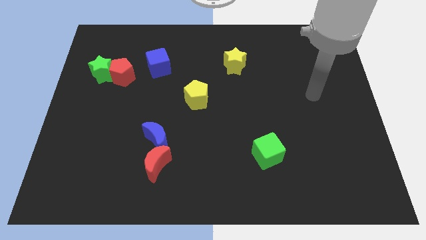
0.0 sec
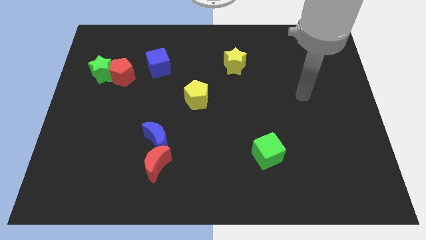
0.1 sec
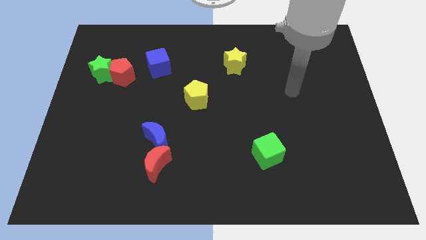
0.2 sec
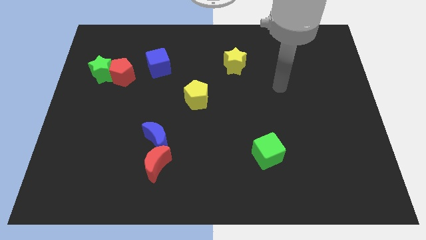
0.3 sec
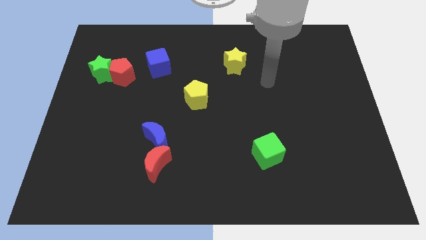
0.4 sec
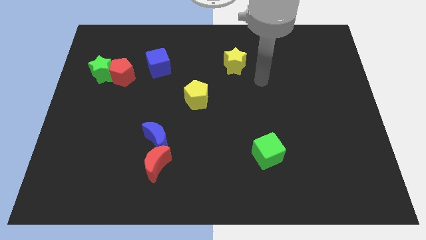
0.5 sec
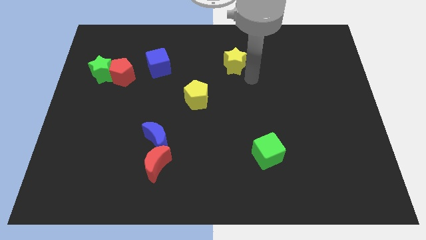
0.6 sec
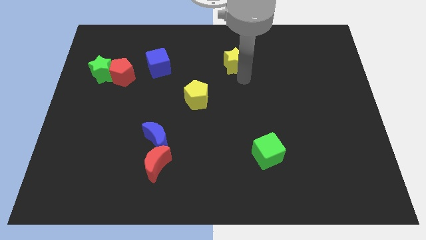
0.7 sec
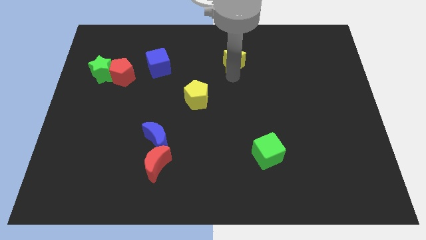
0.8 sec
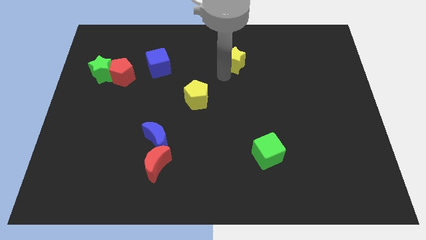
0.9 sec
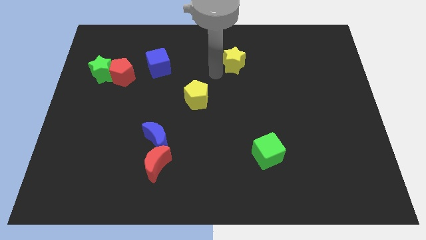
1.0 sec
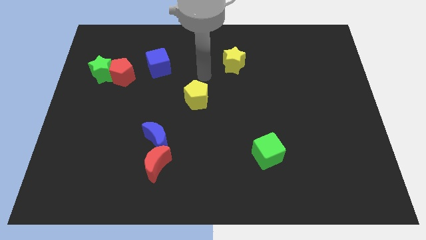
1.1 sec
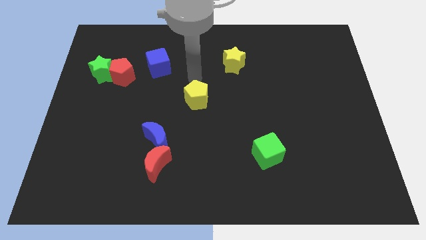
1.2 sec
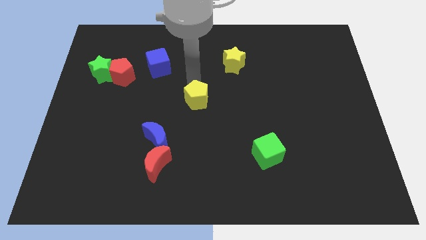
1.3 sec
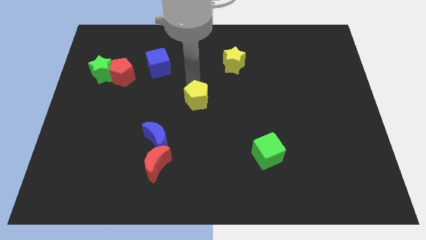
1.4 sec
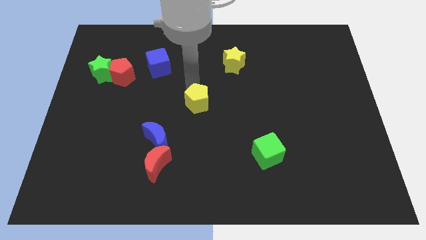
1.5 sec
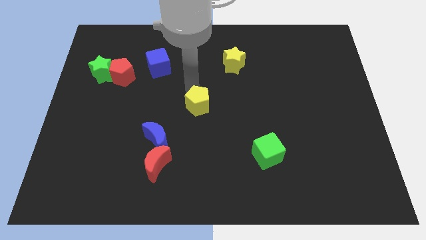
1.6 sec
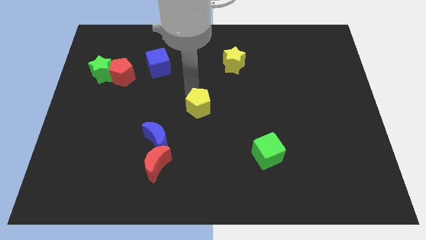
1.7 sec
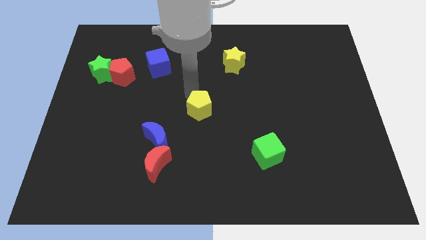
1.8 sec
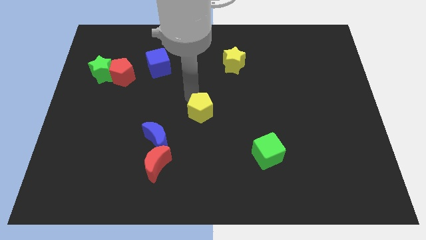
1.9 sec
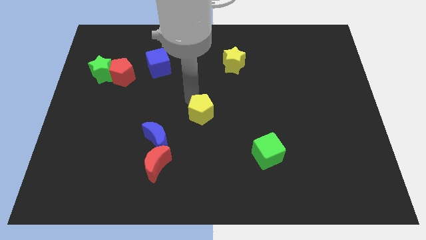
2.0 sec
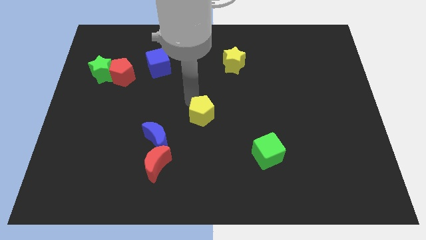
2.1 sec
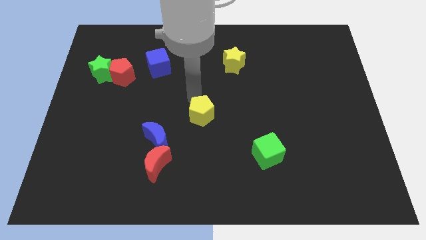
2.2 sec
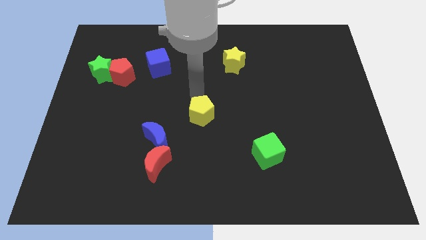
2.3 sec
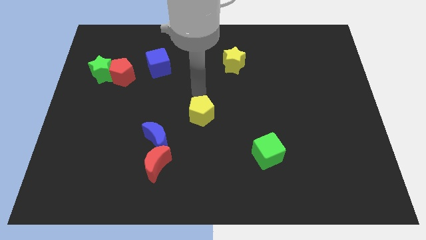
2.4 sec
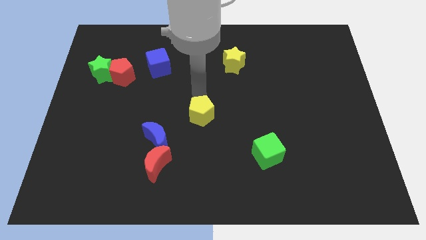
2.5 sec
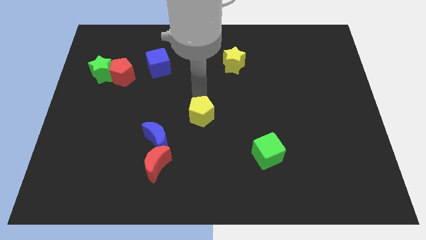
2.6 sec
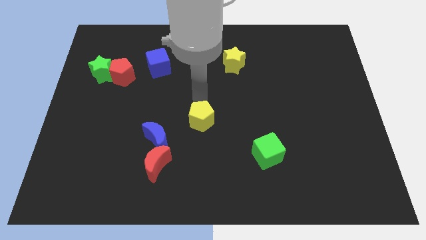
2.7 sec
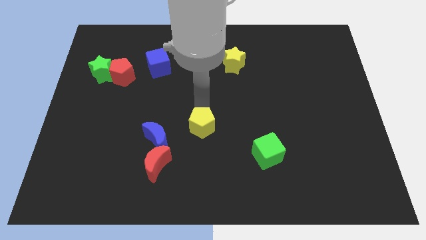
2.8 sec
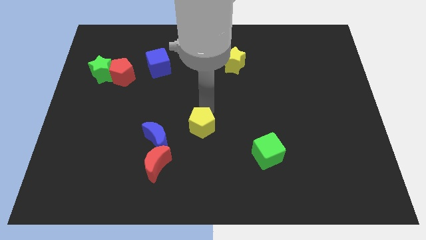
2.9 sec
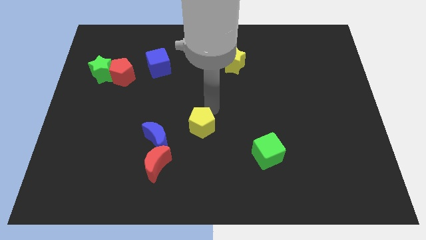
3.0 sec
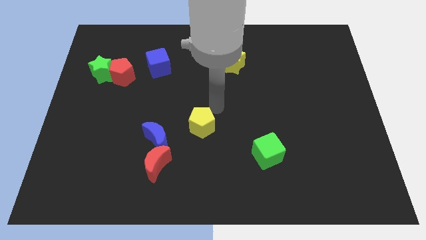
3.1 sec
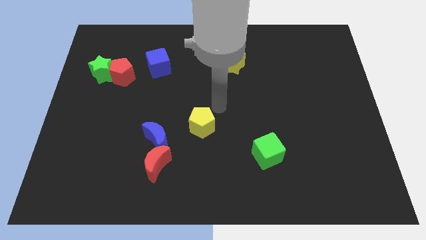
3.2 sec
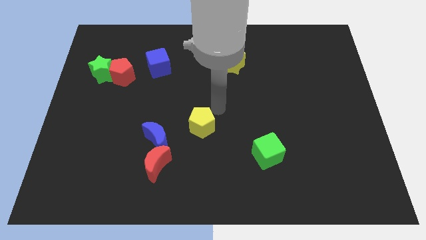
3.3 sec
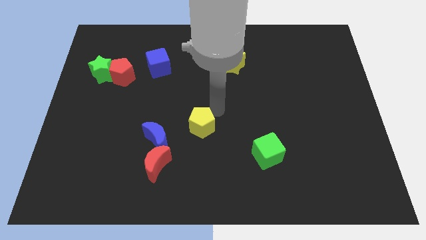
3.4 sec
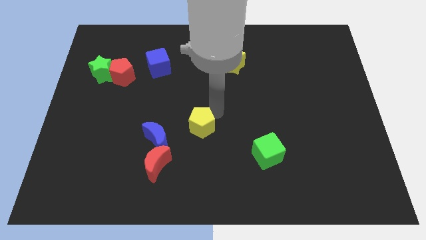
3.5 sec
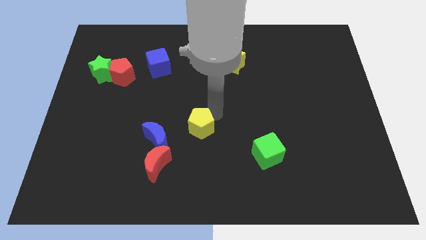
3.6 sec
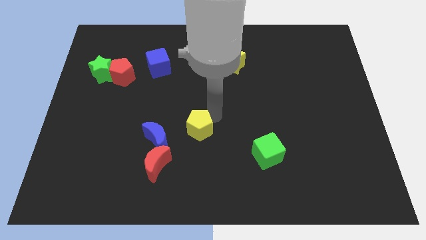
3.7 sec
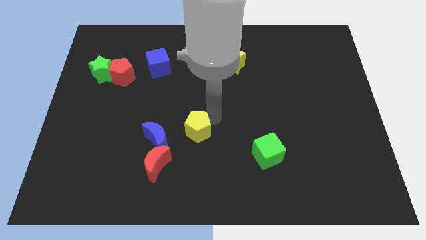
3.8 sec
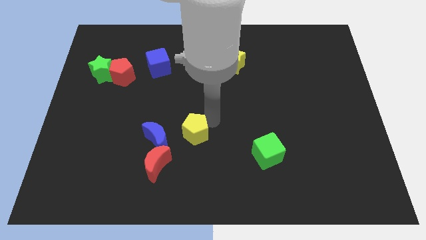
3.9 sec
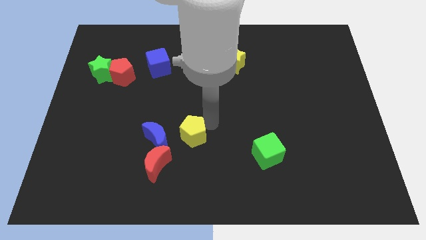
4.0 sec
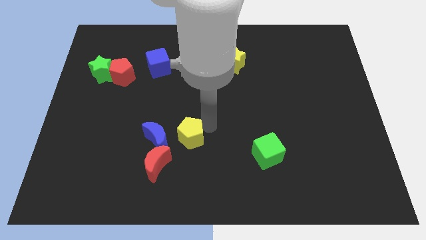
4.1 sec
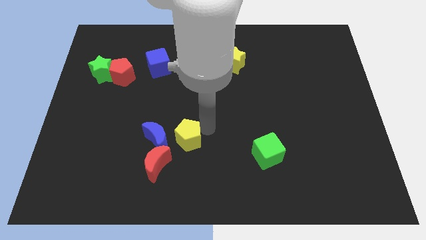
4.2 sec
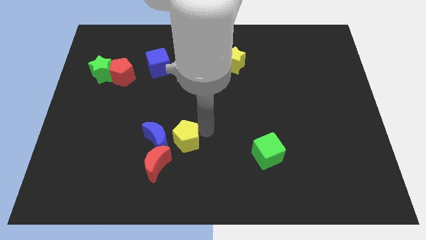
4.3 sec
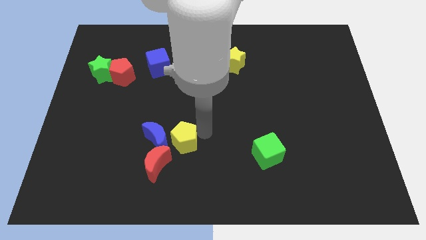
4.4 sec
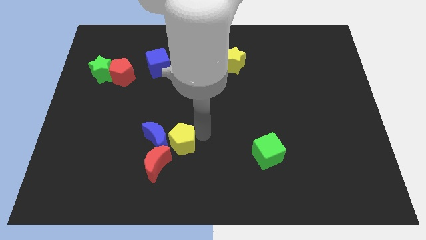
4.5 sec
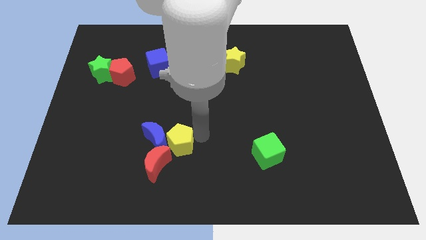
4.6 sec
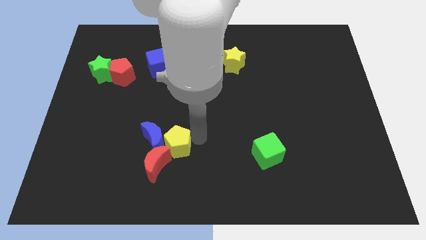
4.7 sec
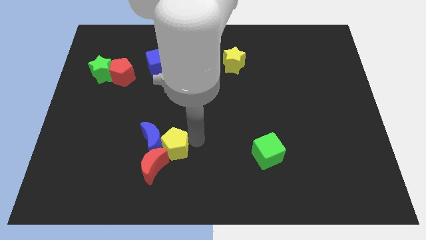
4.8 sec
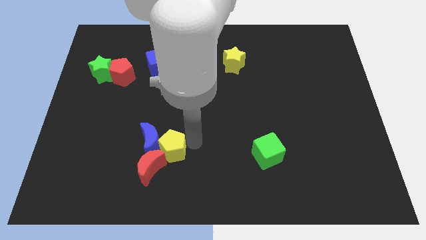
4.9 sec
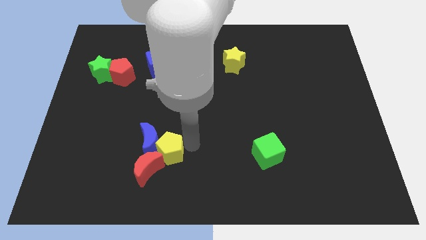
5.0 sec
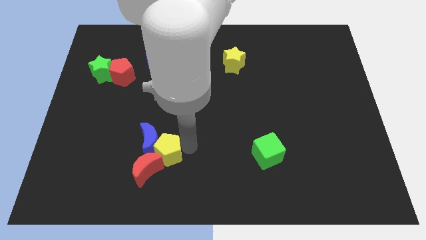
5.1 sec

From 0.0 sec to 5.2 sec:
move the yellow pentagon next to the red moon

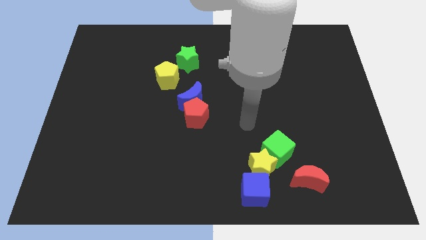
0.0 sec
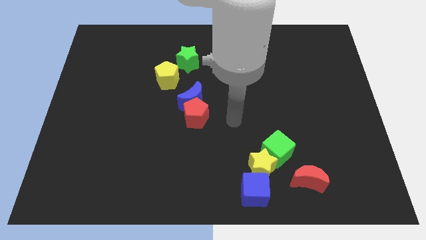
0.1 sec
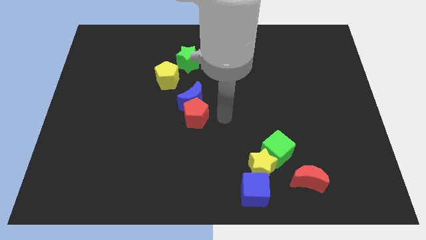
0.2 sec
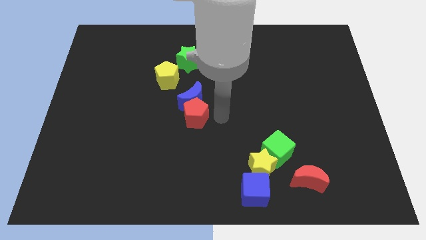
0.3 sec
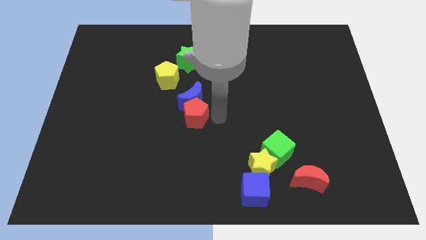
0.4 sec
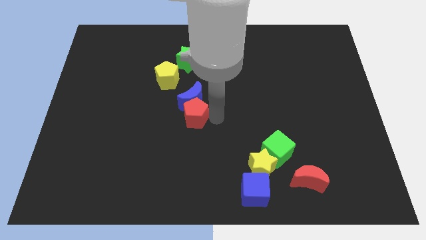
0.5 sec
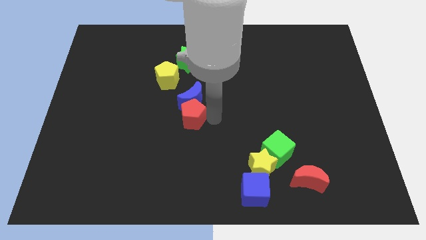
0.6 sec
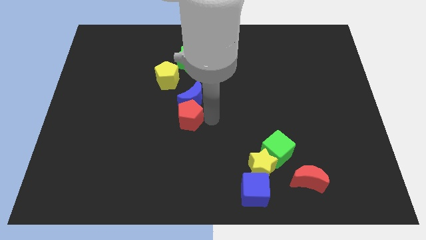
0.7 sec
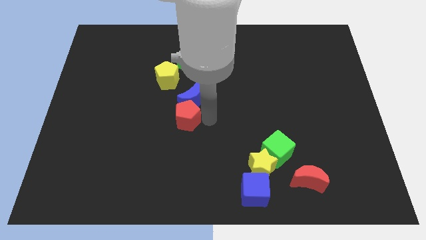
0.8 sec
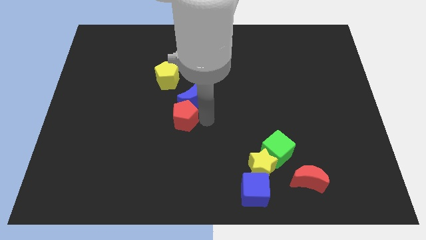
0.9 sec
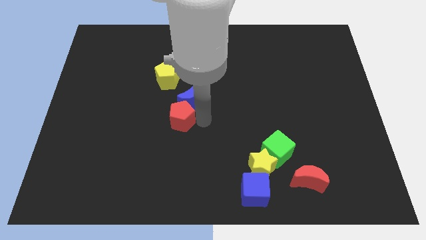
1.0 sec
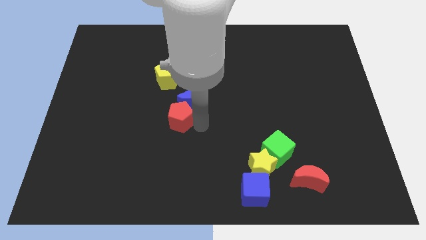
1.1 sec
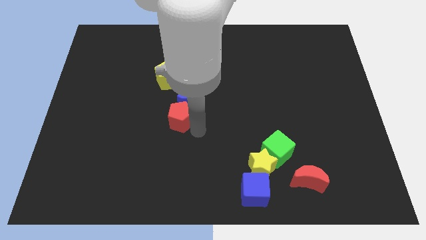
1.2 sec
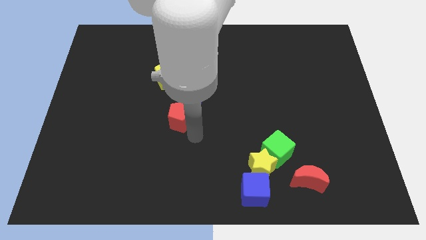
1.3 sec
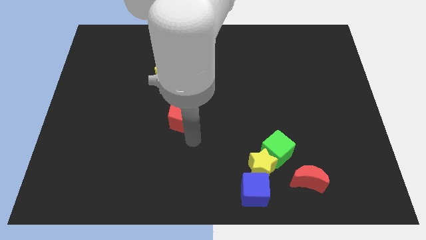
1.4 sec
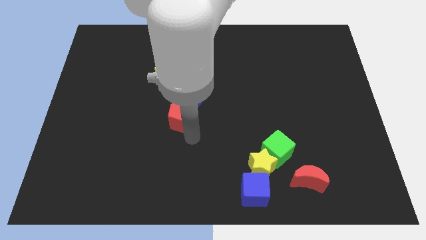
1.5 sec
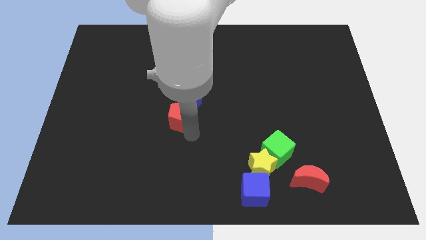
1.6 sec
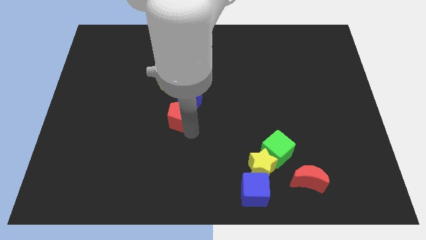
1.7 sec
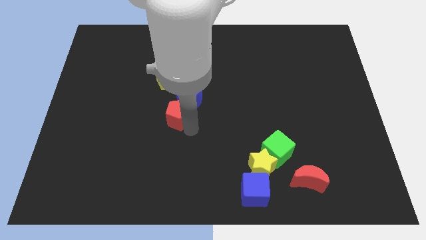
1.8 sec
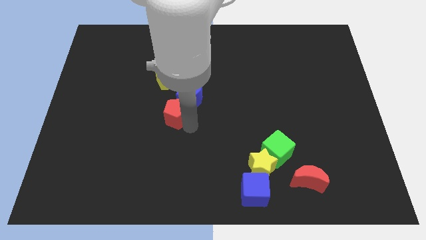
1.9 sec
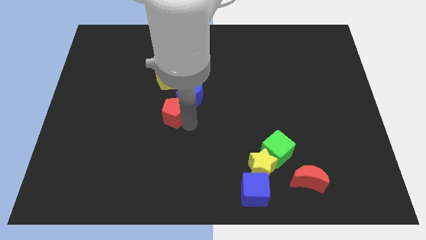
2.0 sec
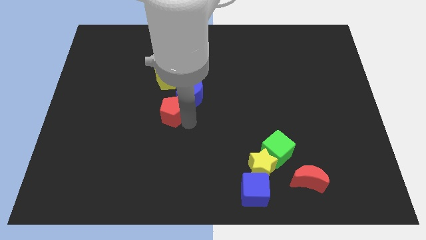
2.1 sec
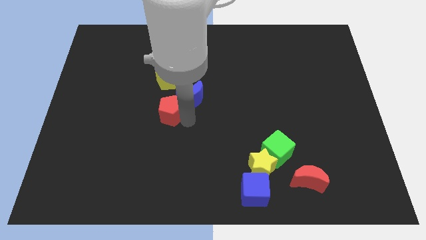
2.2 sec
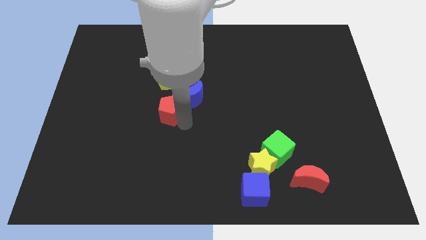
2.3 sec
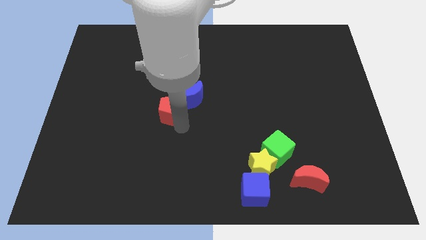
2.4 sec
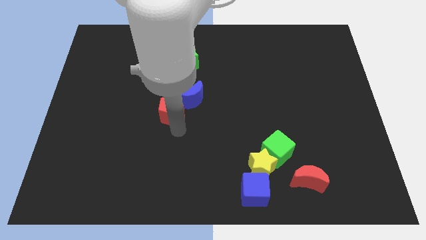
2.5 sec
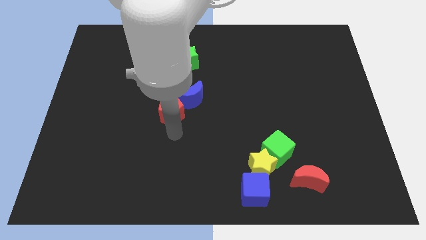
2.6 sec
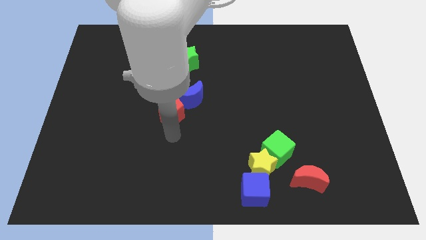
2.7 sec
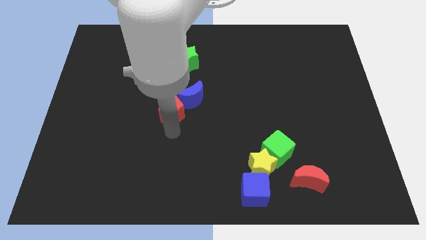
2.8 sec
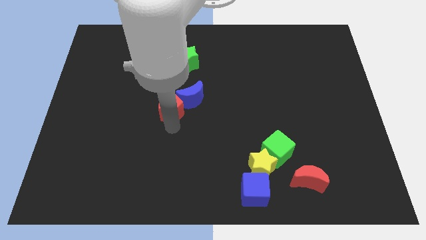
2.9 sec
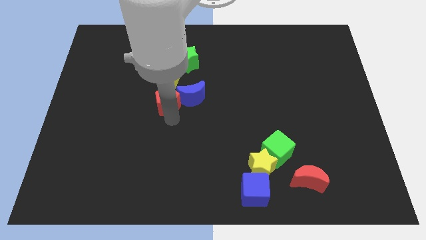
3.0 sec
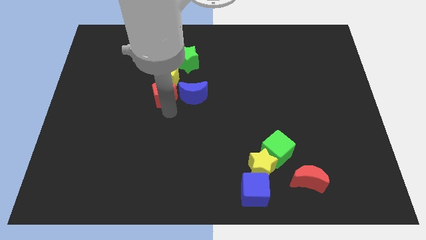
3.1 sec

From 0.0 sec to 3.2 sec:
push the red pentagon towards the yellow pentagon
